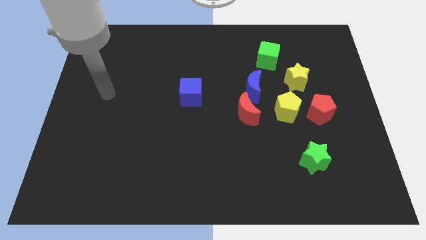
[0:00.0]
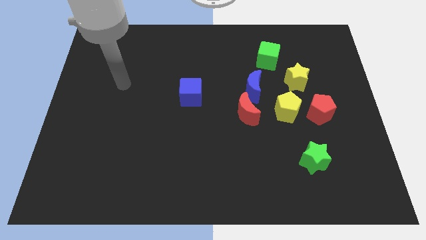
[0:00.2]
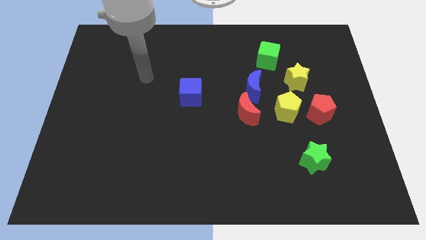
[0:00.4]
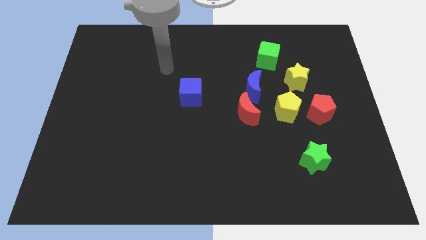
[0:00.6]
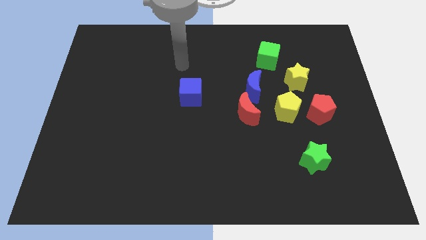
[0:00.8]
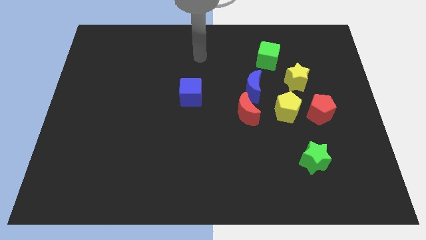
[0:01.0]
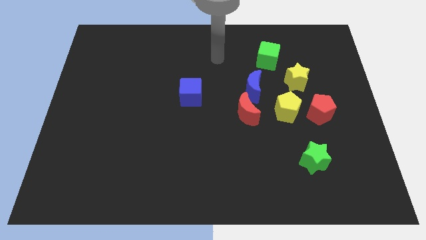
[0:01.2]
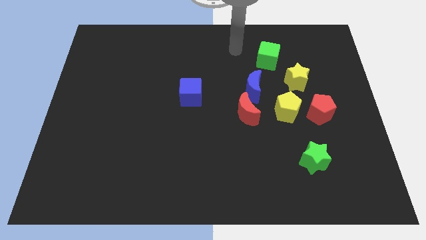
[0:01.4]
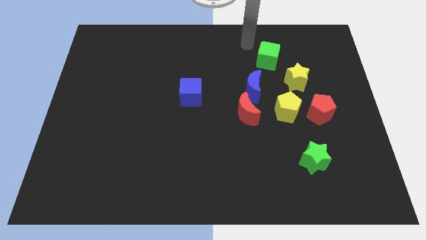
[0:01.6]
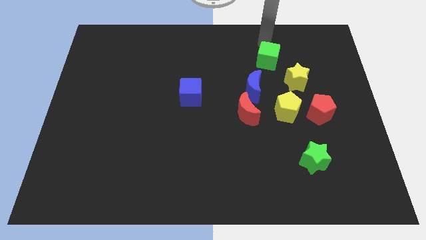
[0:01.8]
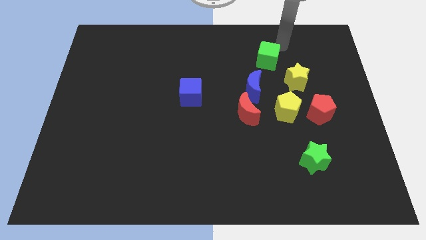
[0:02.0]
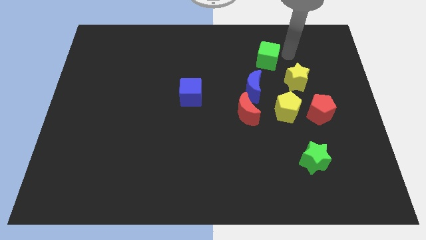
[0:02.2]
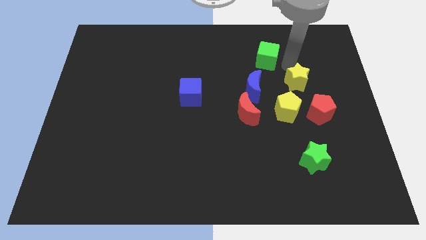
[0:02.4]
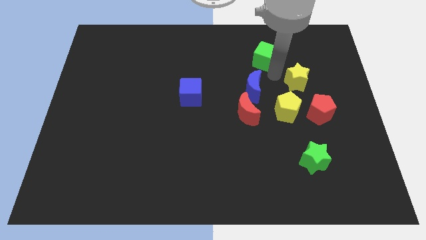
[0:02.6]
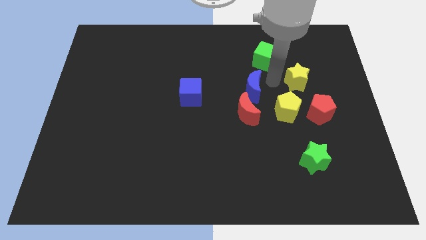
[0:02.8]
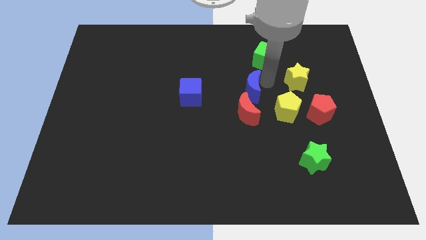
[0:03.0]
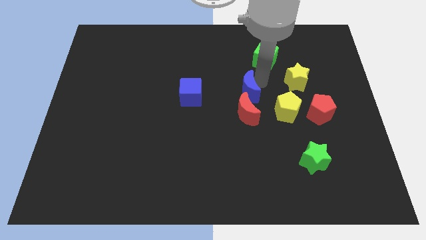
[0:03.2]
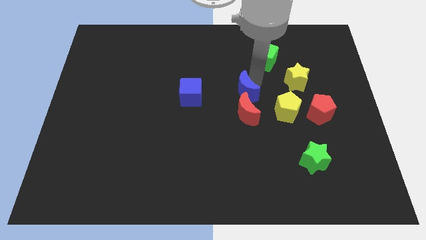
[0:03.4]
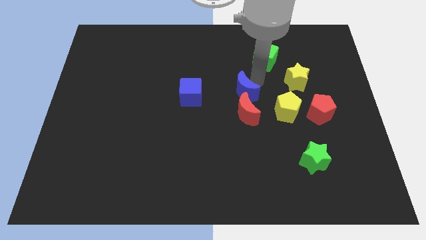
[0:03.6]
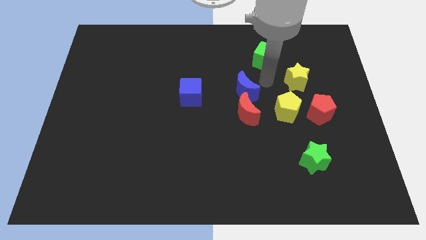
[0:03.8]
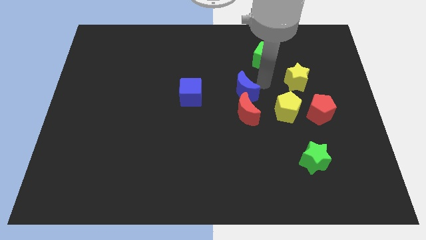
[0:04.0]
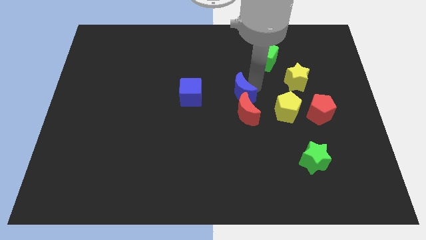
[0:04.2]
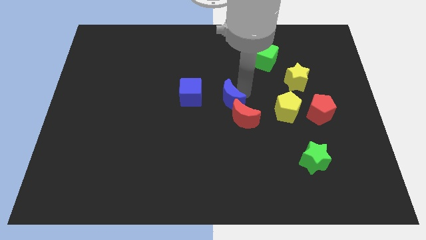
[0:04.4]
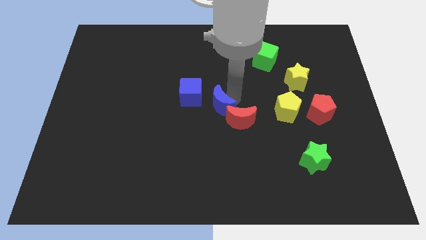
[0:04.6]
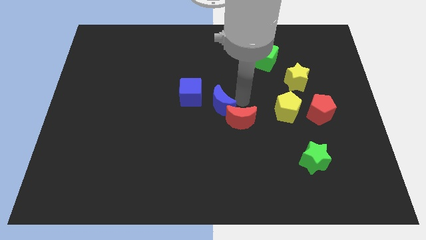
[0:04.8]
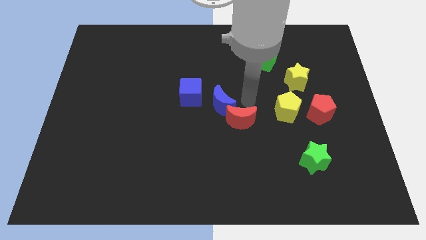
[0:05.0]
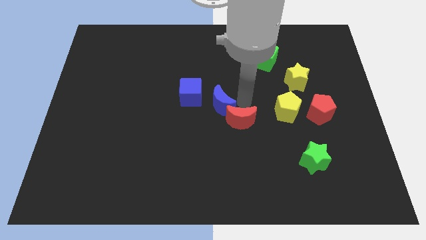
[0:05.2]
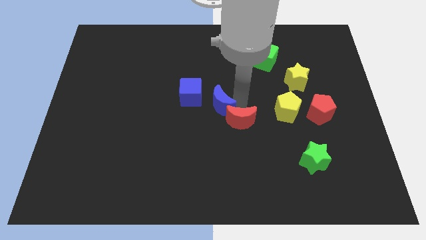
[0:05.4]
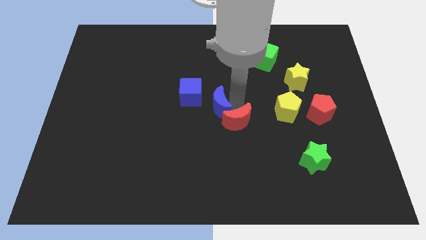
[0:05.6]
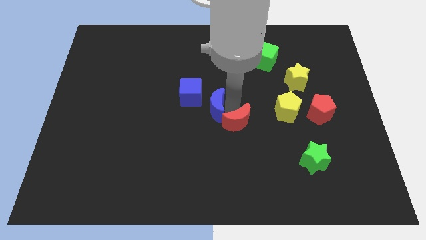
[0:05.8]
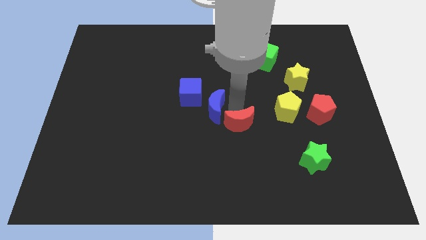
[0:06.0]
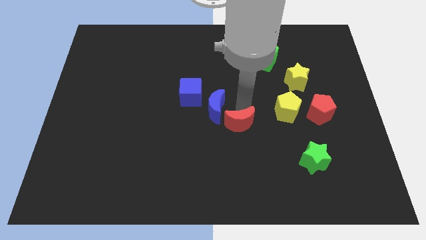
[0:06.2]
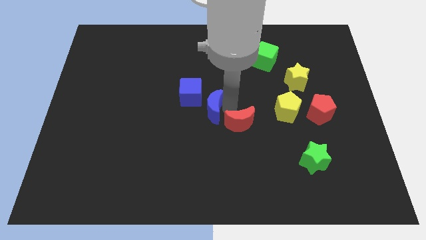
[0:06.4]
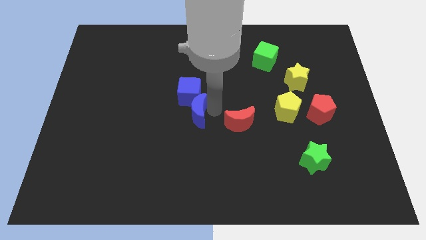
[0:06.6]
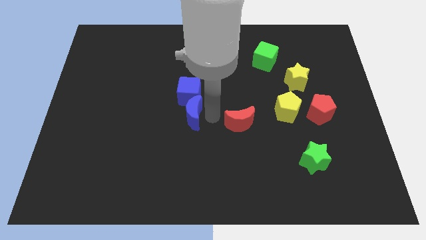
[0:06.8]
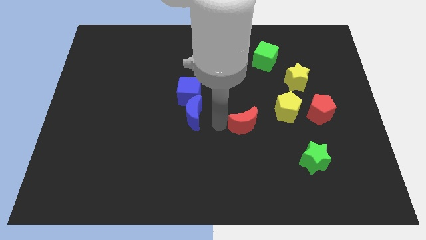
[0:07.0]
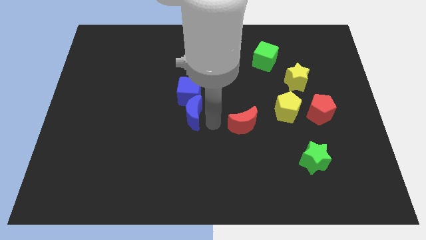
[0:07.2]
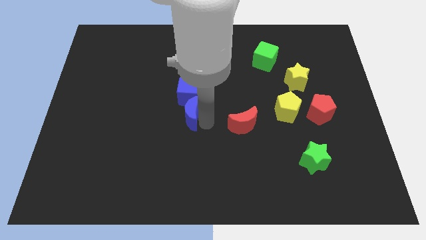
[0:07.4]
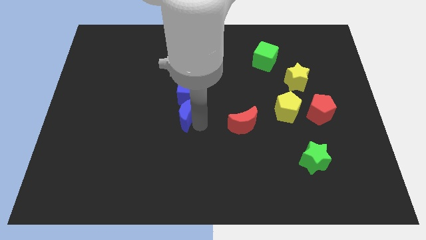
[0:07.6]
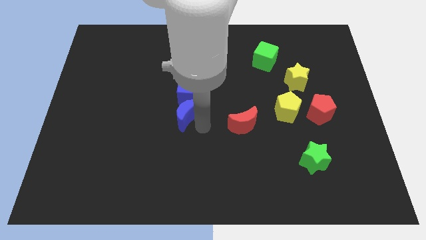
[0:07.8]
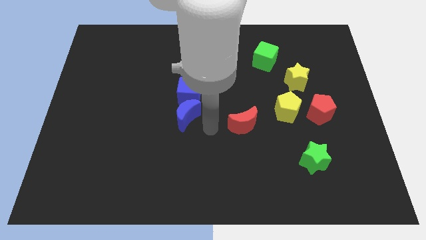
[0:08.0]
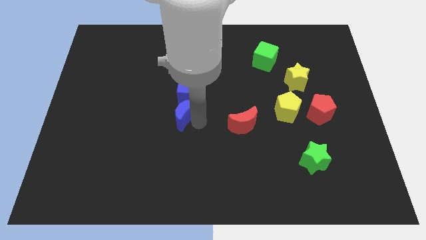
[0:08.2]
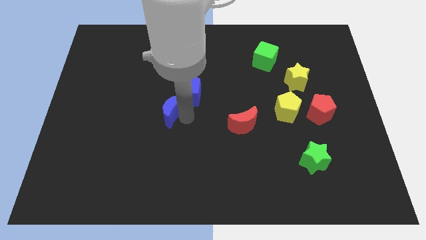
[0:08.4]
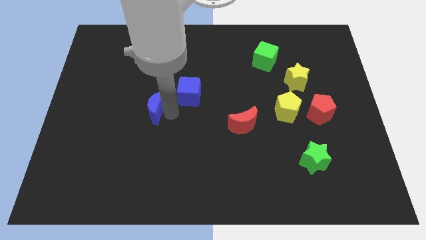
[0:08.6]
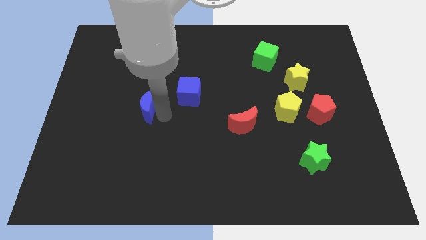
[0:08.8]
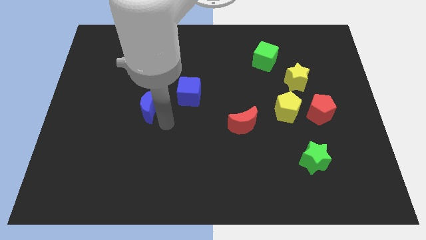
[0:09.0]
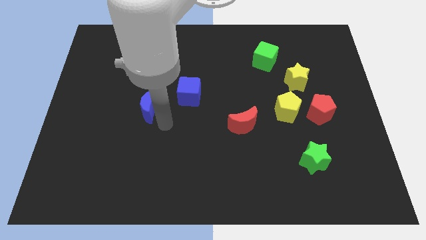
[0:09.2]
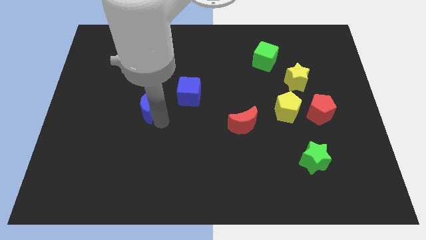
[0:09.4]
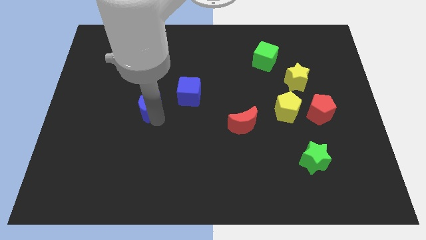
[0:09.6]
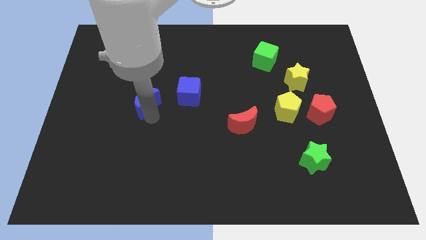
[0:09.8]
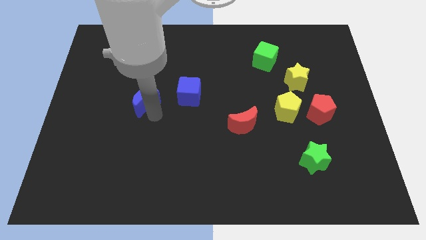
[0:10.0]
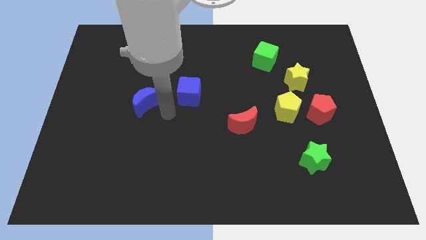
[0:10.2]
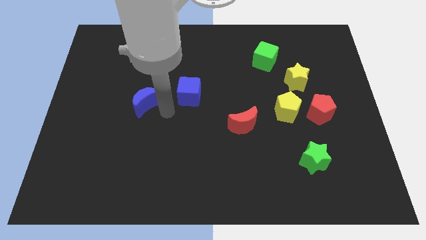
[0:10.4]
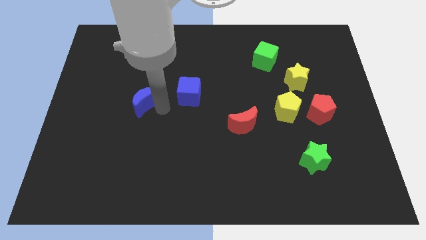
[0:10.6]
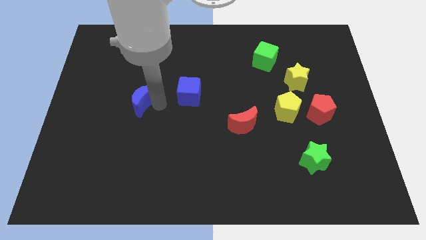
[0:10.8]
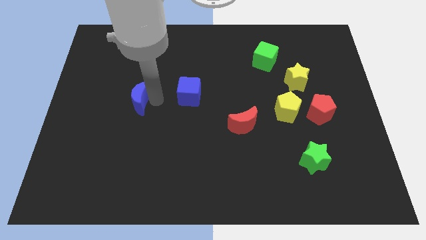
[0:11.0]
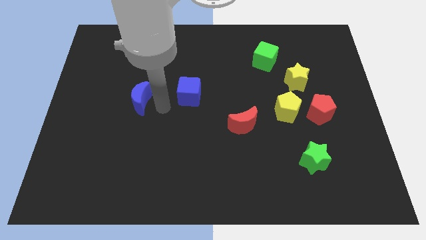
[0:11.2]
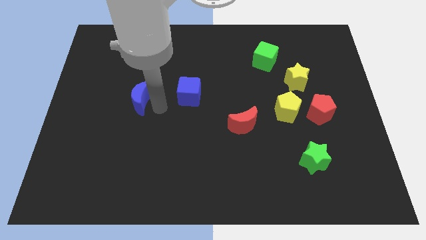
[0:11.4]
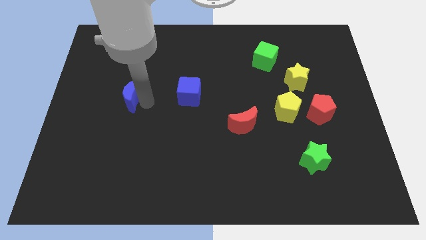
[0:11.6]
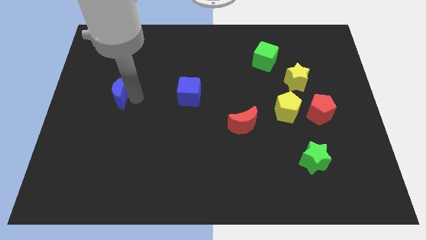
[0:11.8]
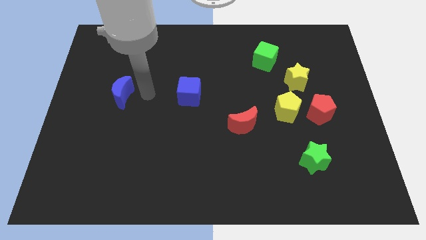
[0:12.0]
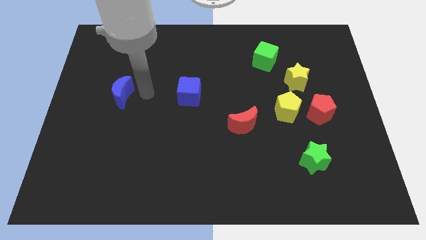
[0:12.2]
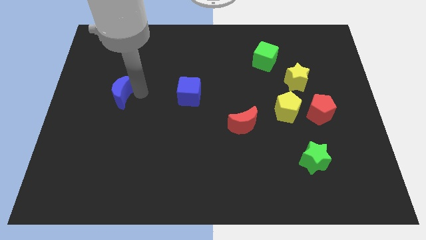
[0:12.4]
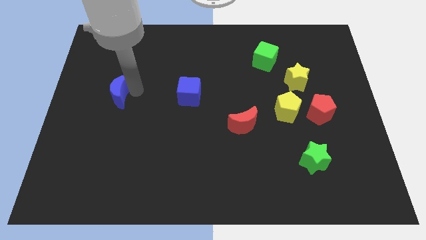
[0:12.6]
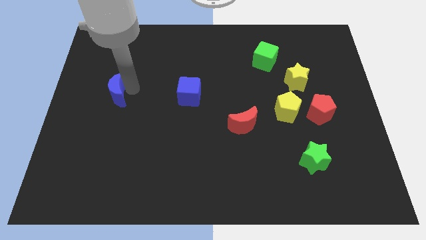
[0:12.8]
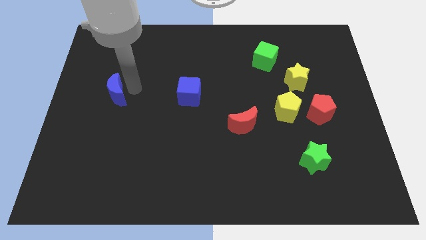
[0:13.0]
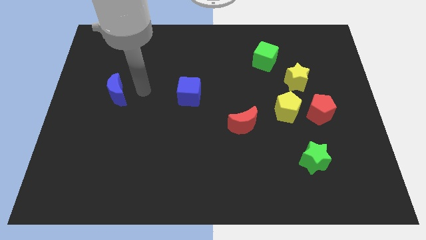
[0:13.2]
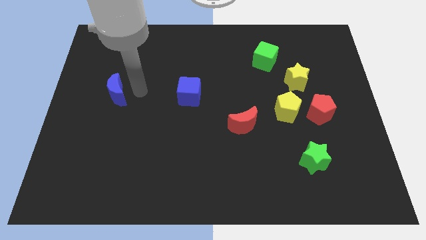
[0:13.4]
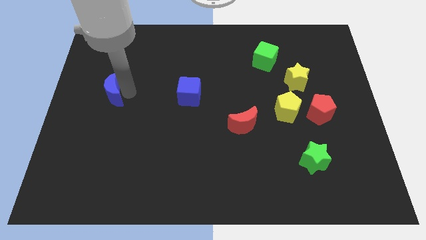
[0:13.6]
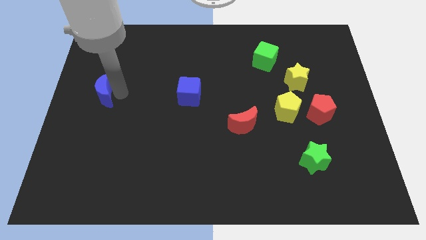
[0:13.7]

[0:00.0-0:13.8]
slide the blue moon to the center left
